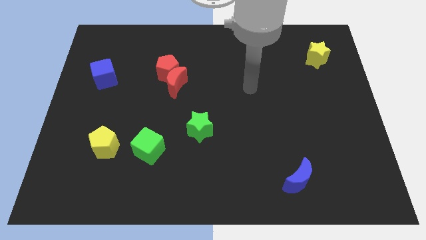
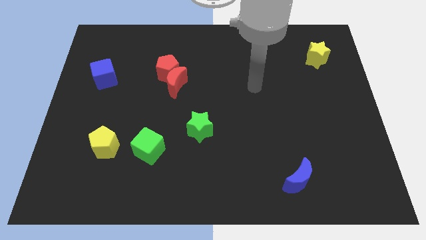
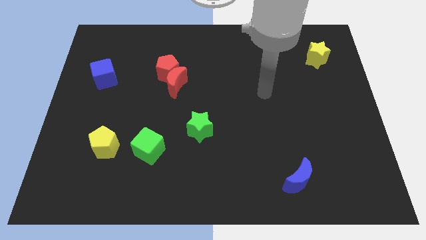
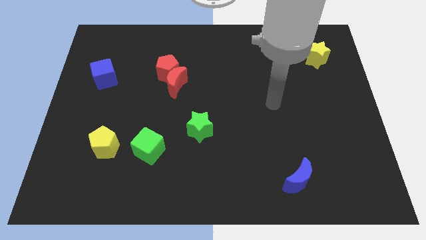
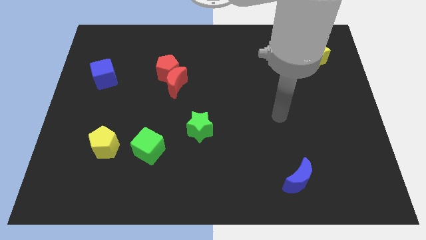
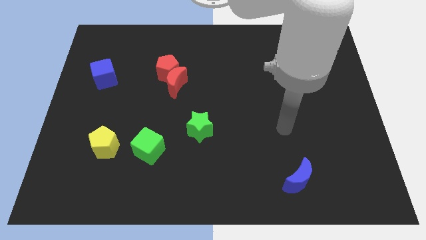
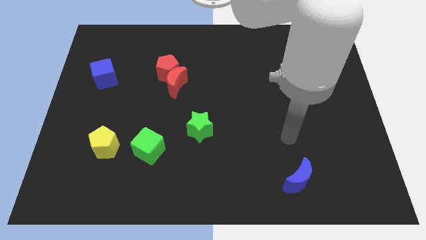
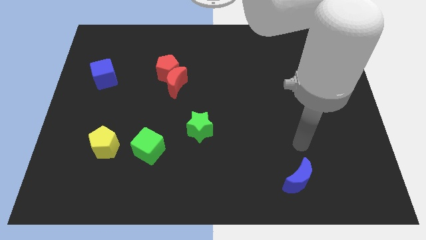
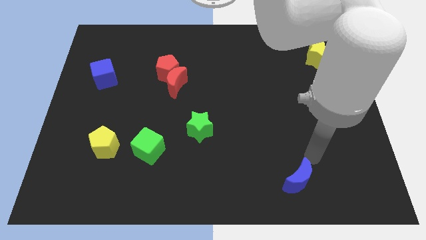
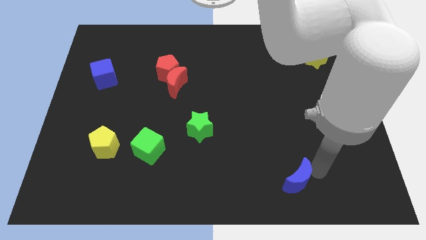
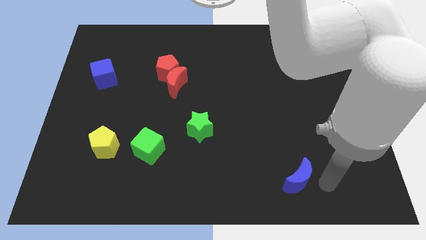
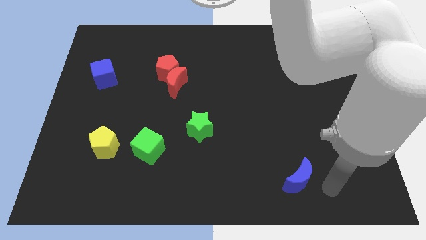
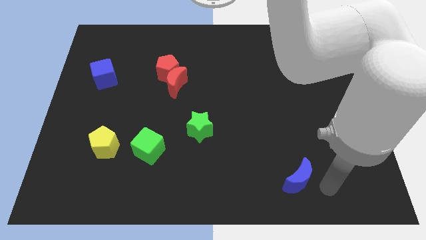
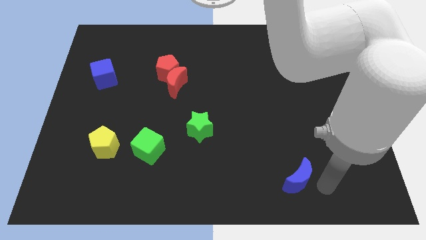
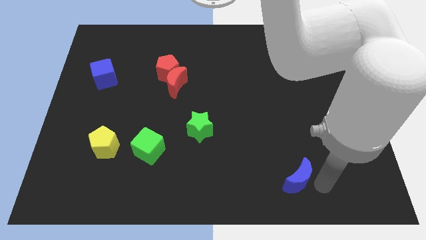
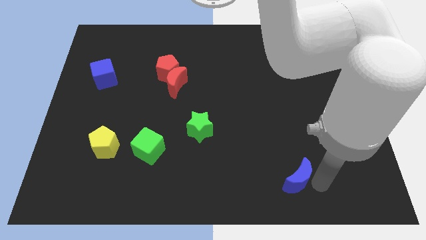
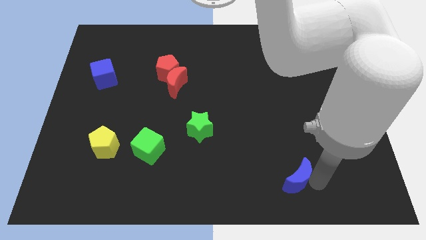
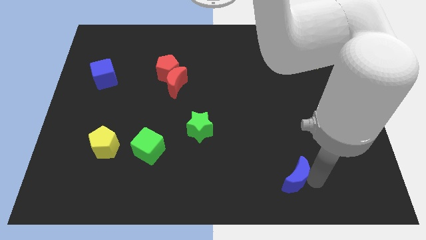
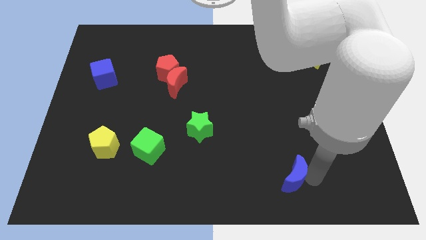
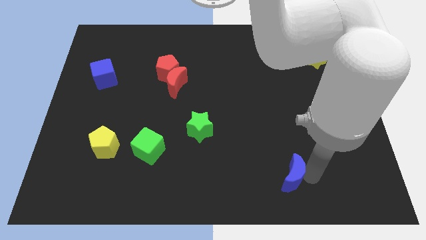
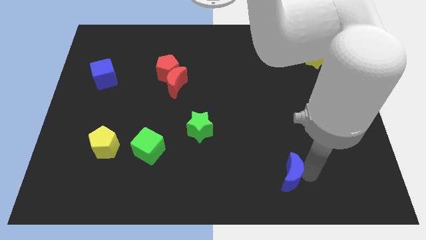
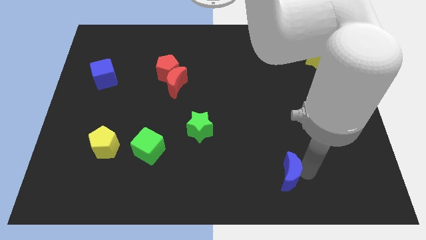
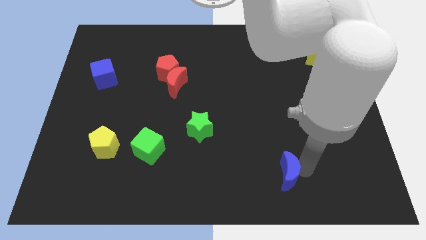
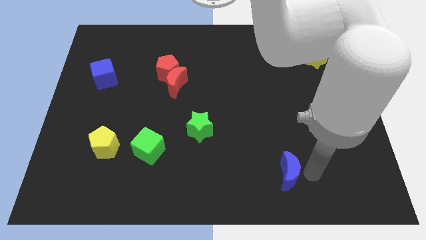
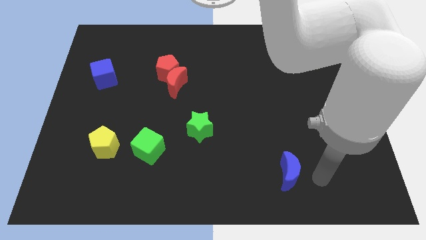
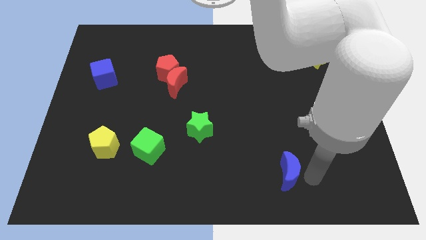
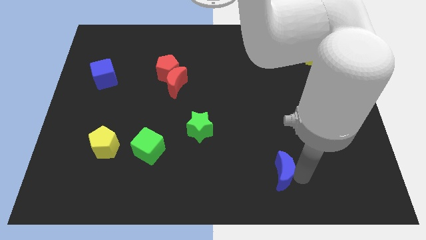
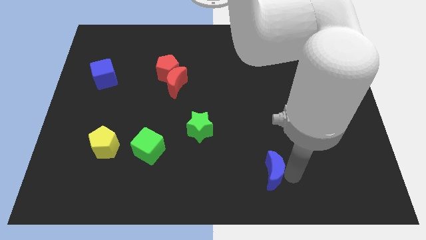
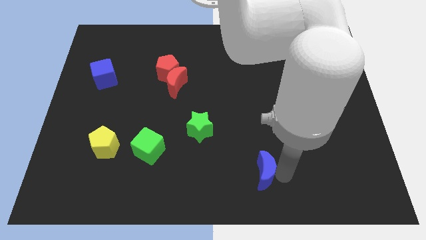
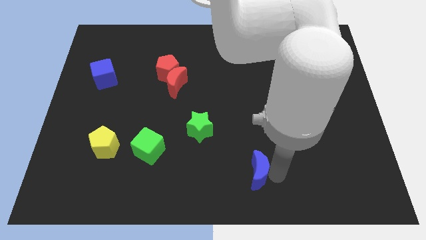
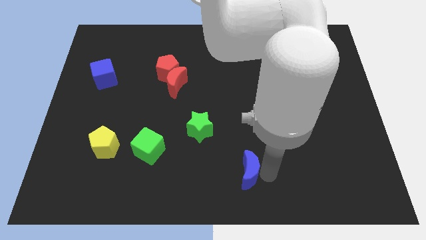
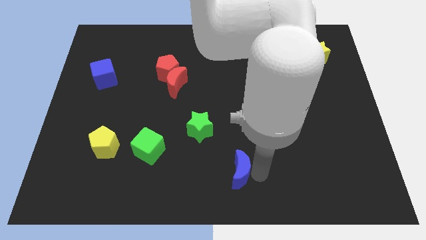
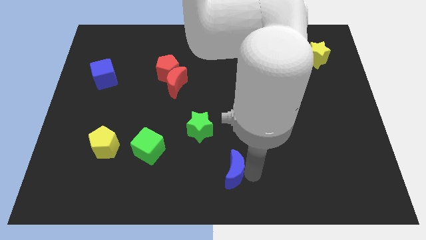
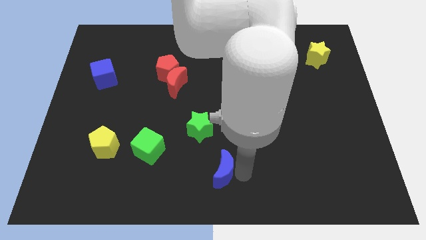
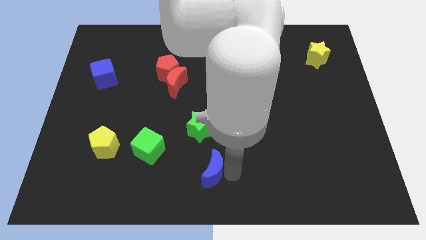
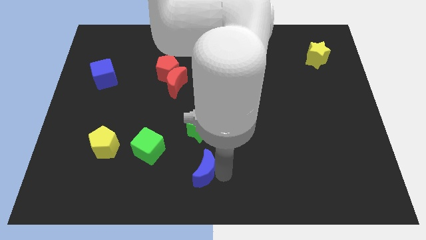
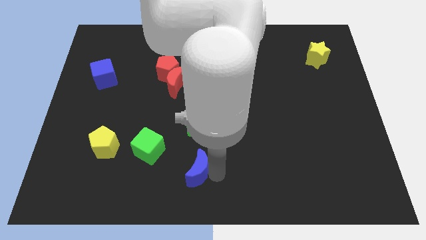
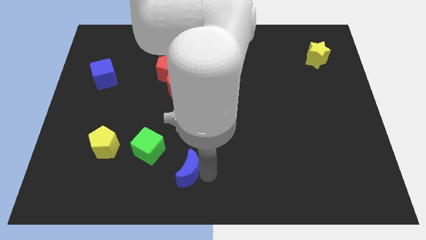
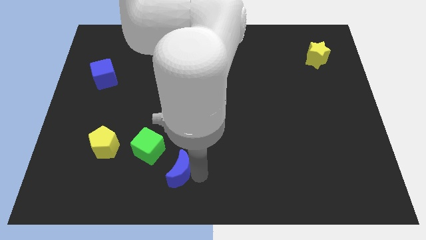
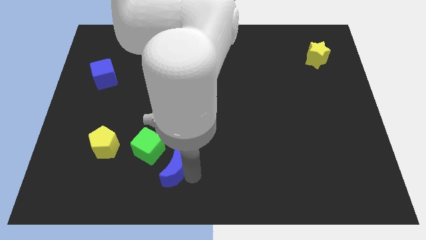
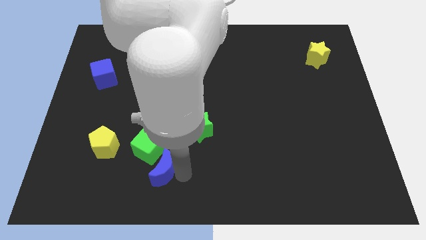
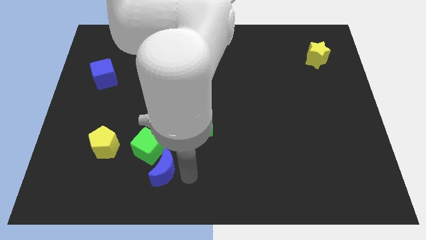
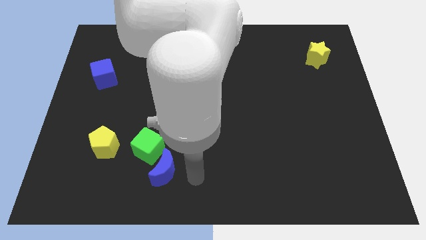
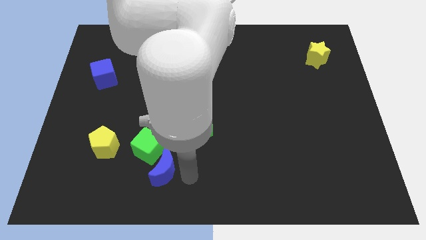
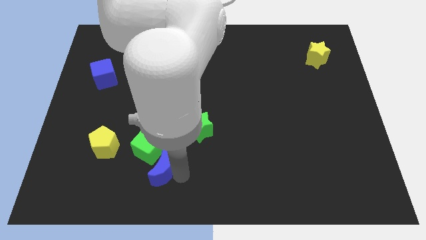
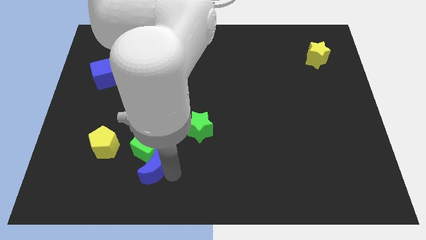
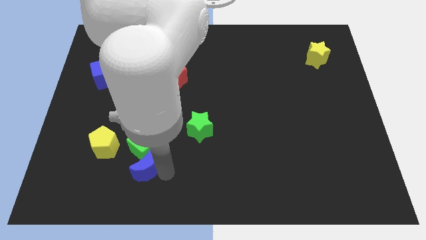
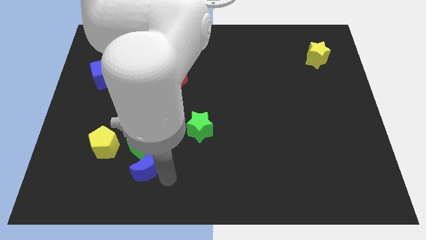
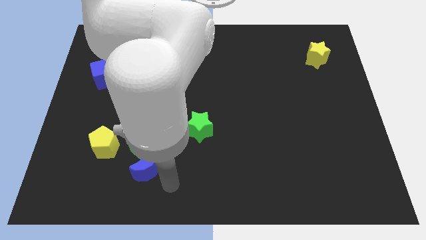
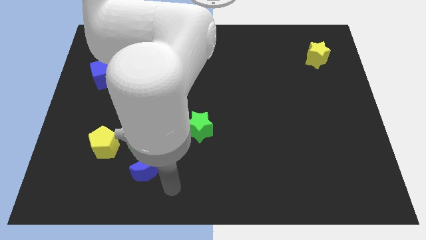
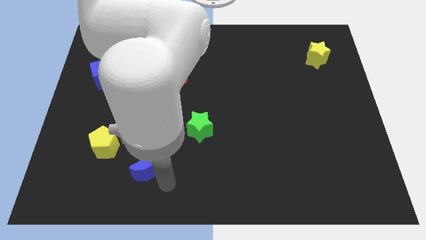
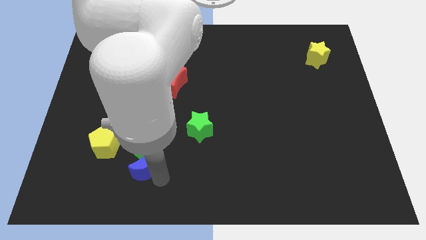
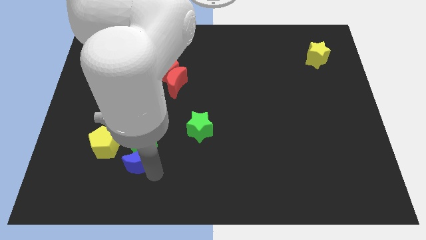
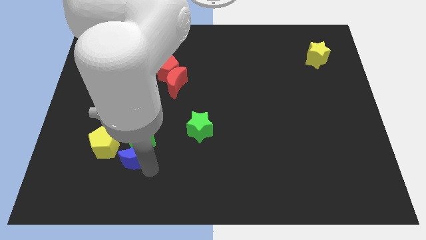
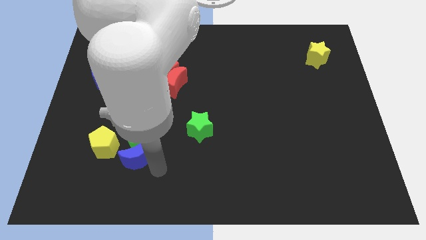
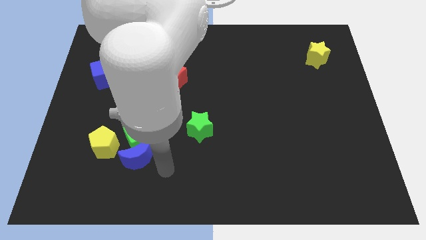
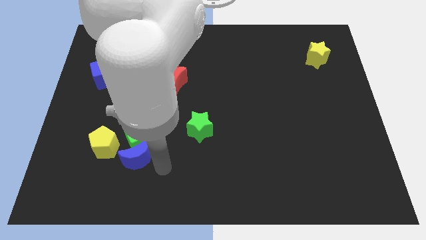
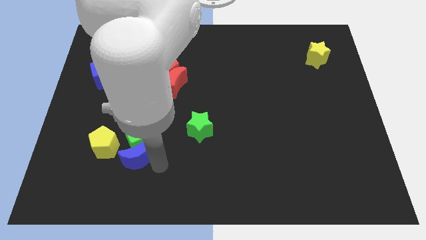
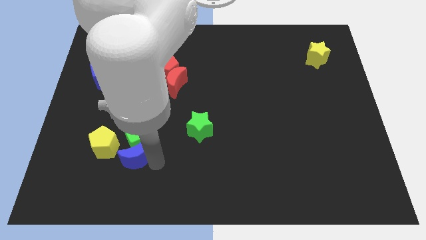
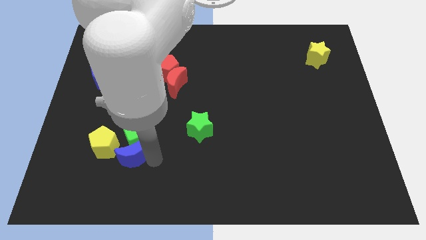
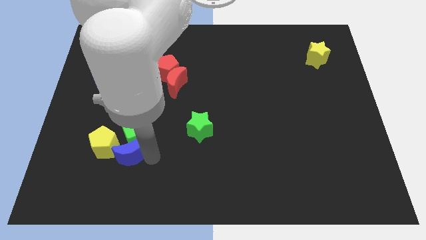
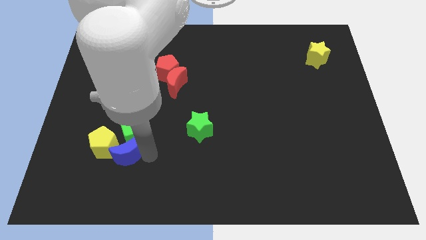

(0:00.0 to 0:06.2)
move the blue moon next to the yellow pentagon

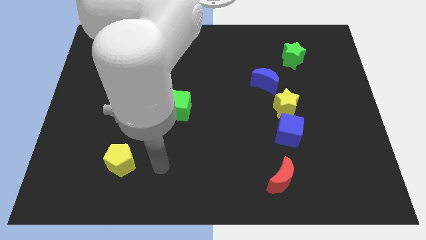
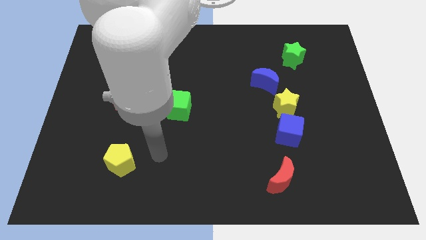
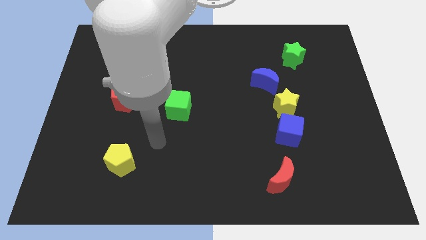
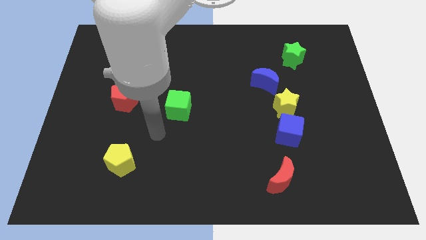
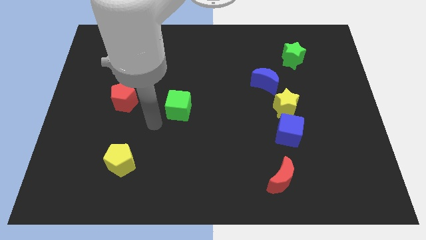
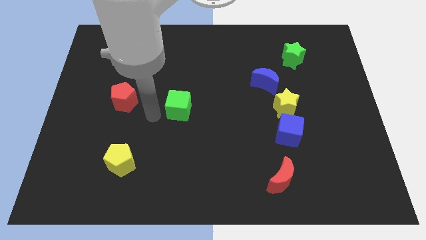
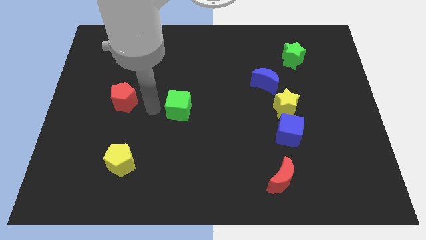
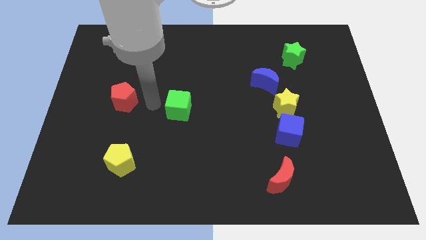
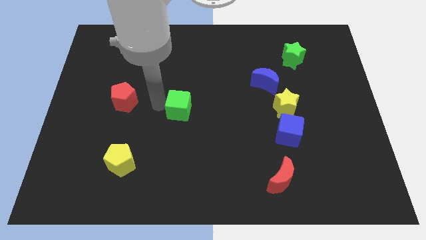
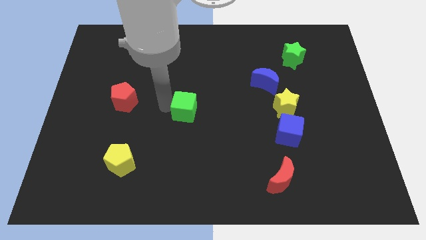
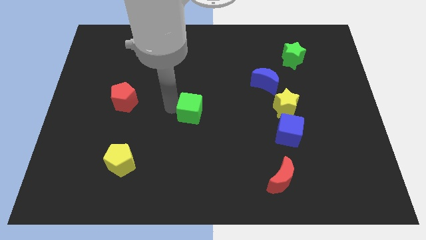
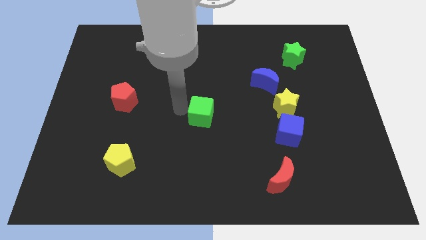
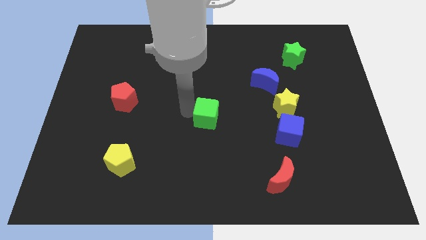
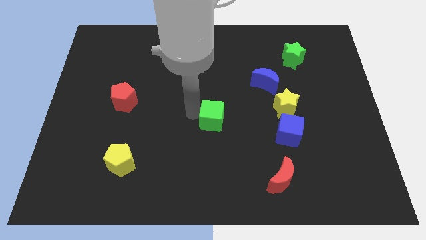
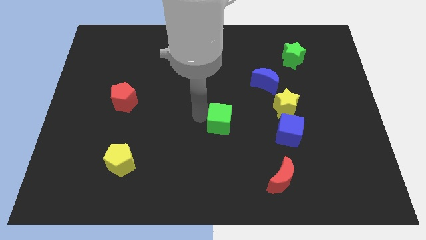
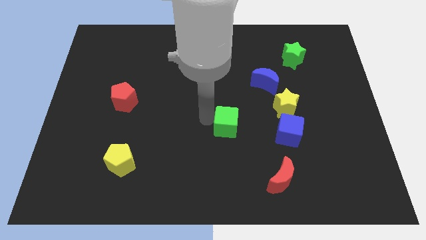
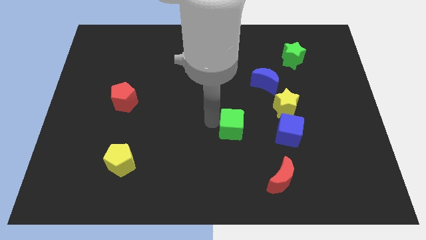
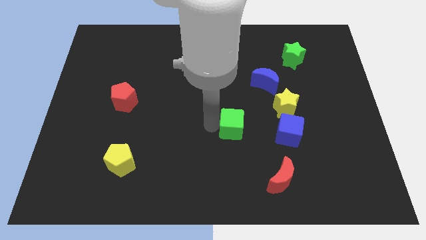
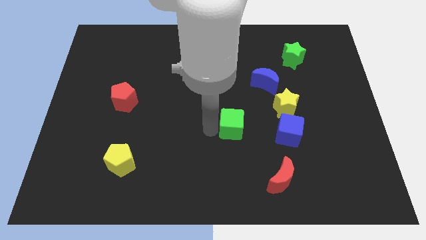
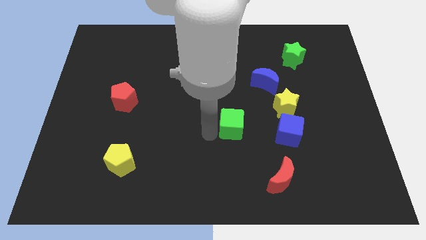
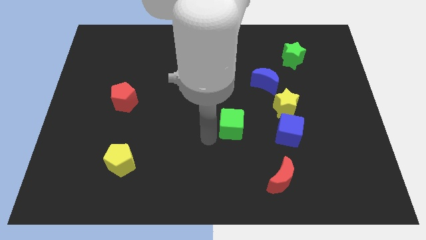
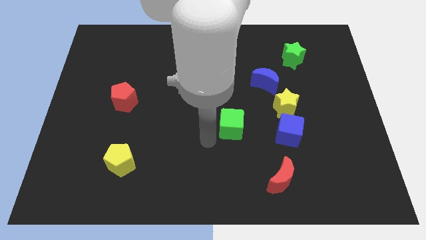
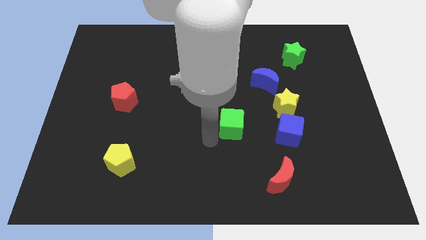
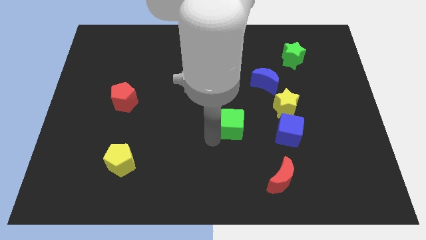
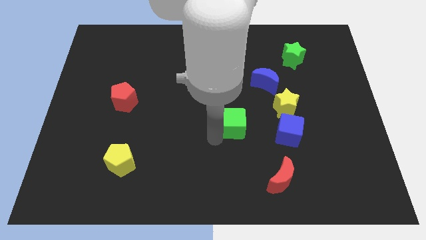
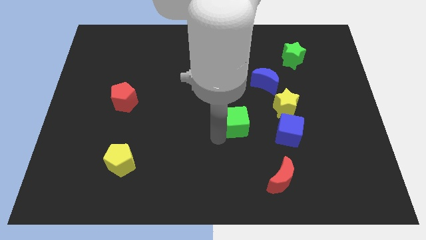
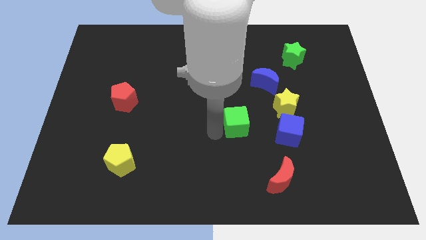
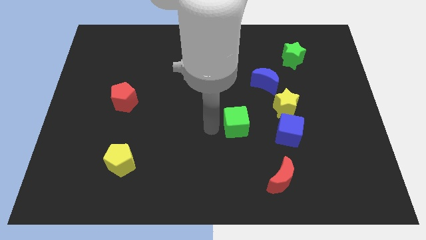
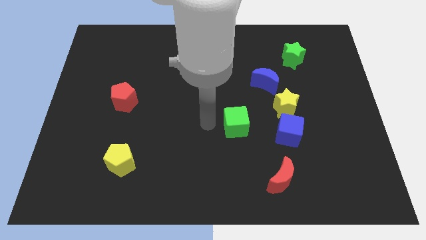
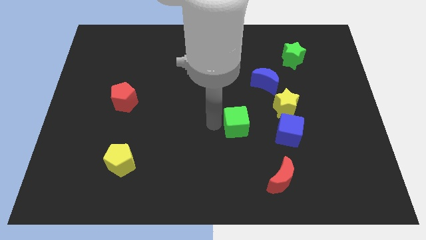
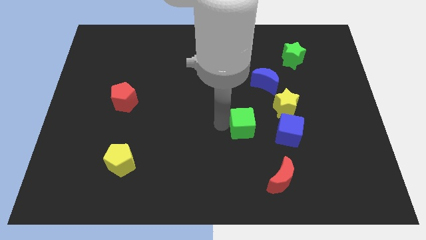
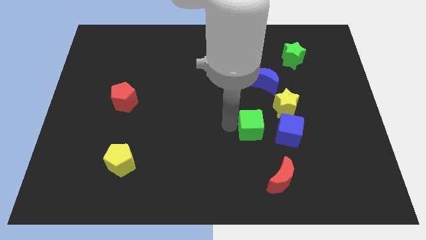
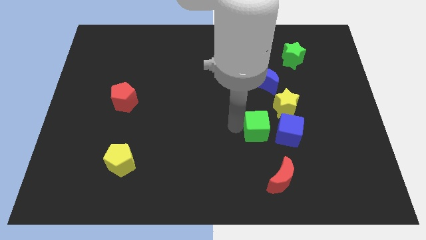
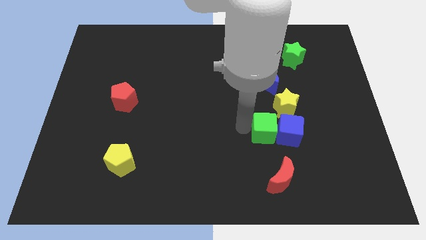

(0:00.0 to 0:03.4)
move the green cube to the blue cube
